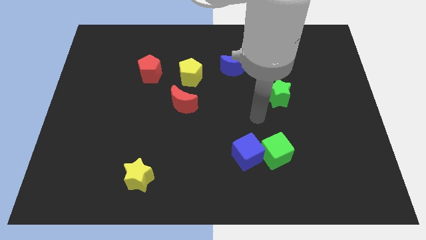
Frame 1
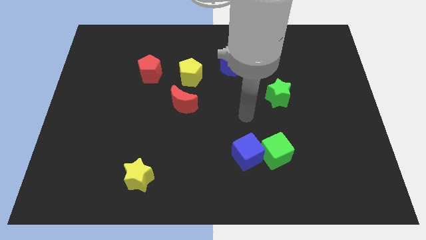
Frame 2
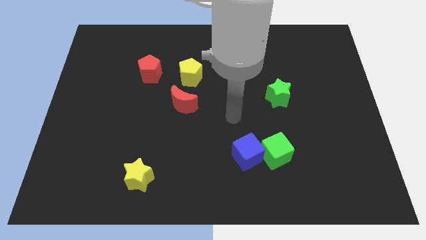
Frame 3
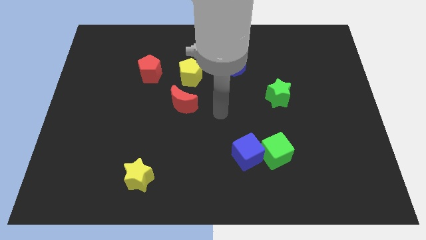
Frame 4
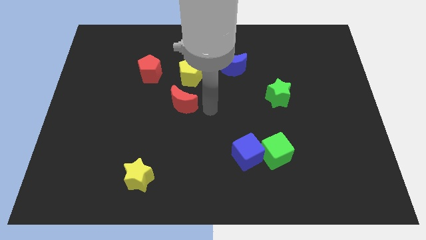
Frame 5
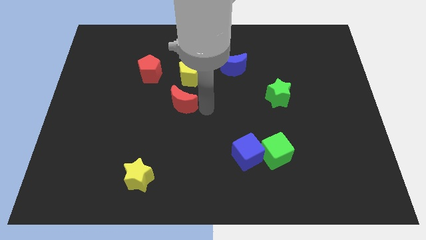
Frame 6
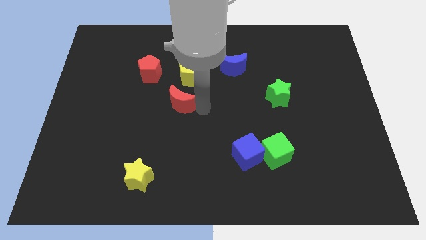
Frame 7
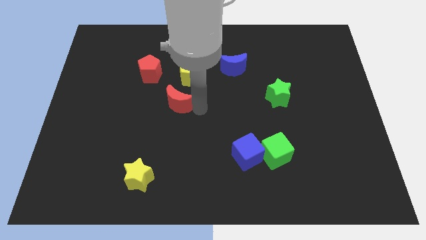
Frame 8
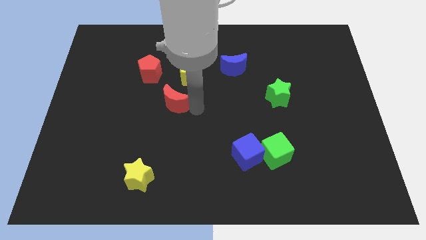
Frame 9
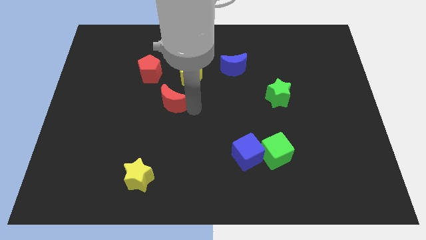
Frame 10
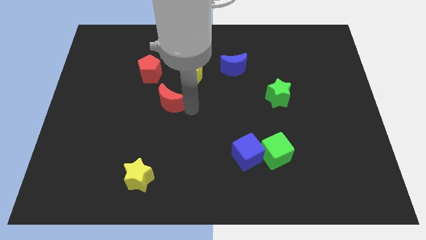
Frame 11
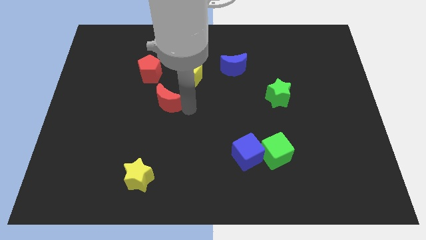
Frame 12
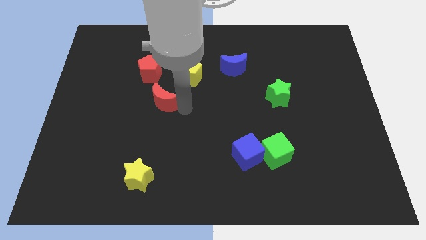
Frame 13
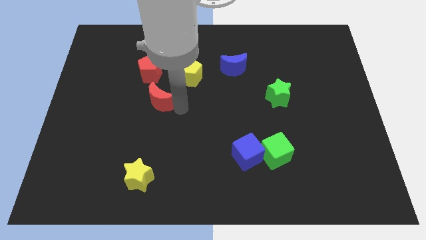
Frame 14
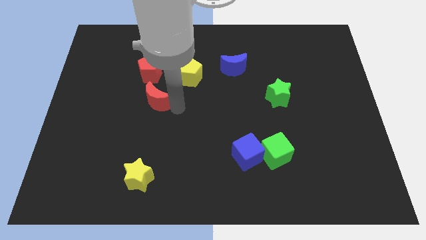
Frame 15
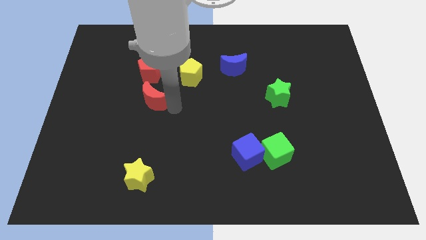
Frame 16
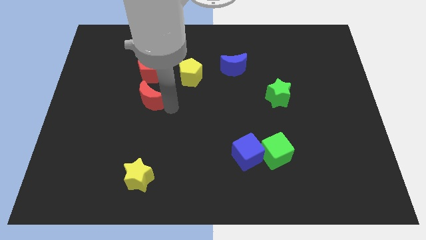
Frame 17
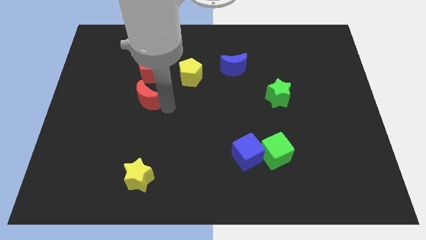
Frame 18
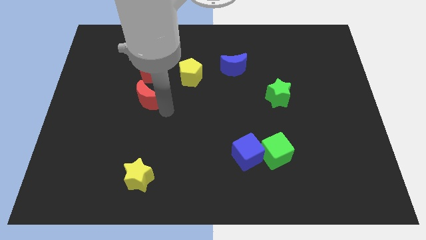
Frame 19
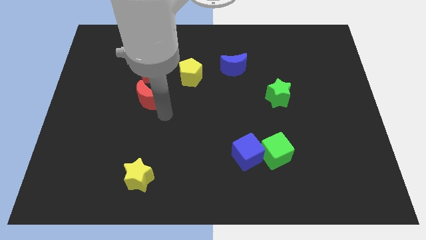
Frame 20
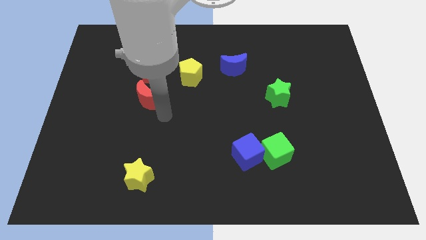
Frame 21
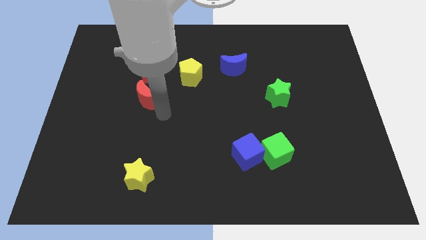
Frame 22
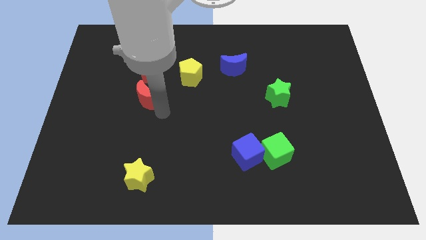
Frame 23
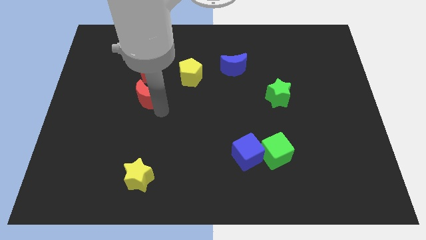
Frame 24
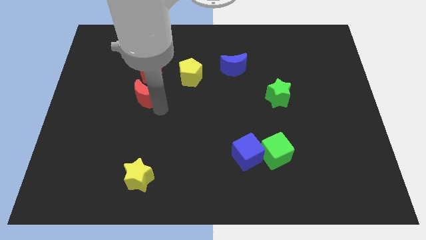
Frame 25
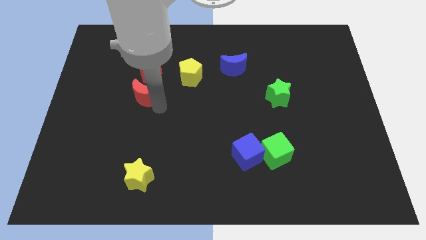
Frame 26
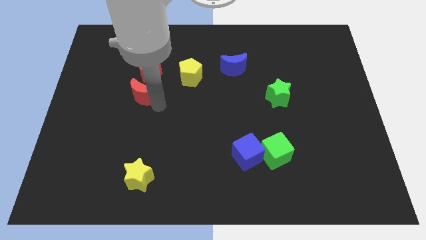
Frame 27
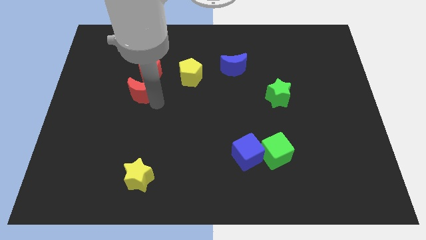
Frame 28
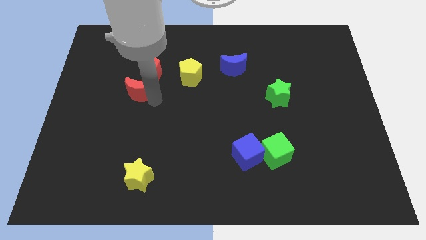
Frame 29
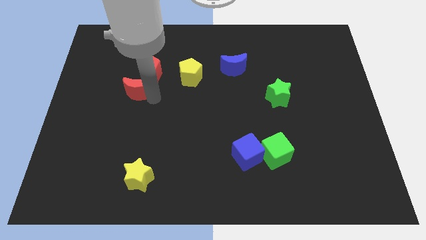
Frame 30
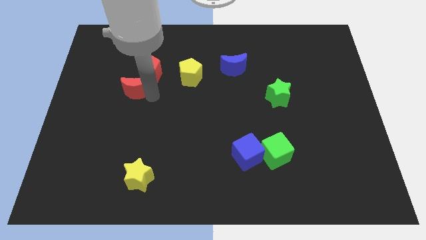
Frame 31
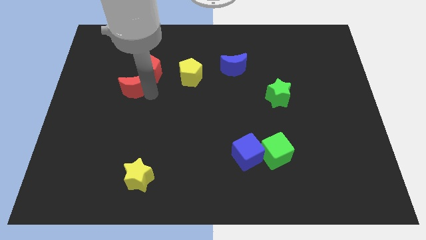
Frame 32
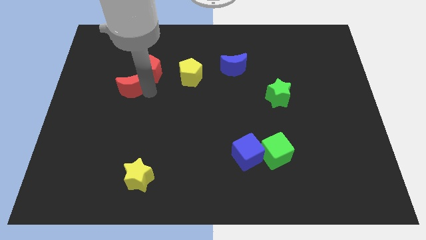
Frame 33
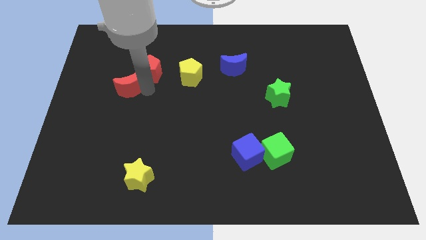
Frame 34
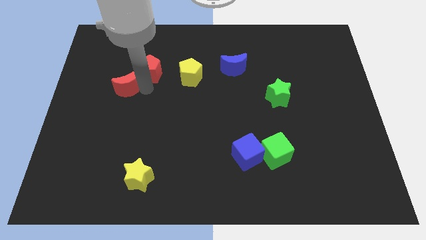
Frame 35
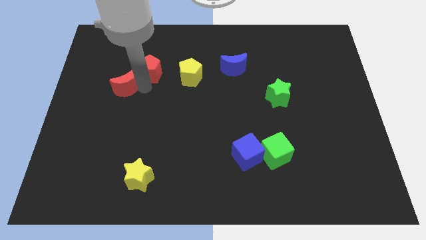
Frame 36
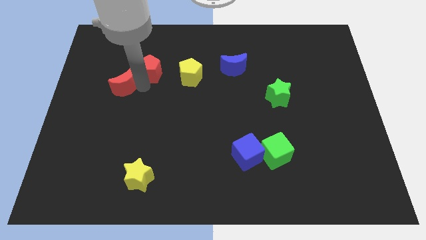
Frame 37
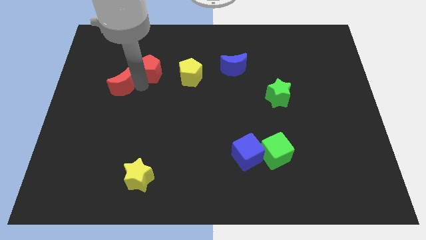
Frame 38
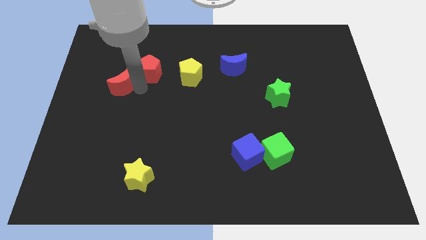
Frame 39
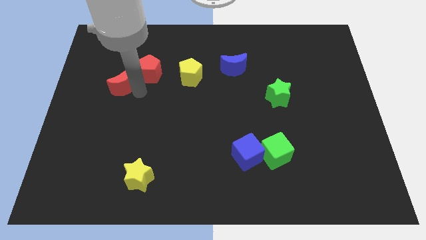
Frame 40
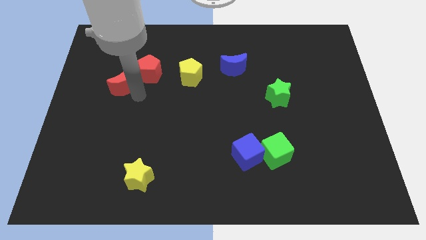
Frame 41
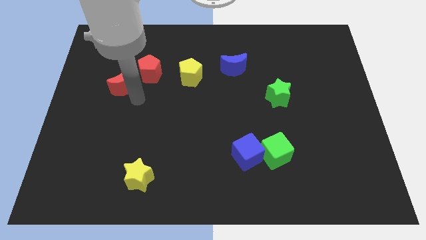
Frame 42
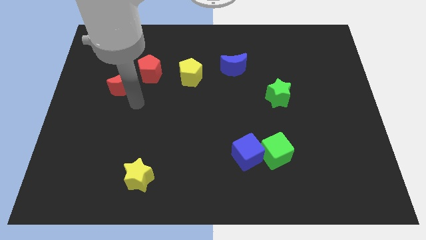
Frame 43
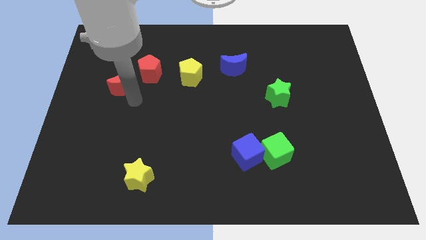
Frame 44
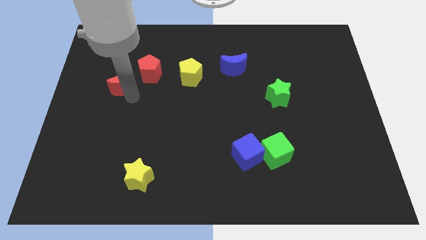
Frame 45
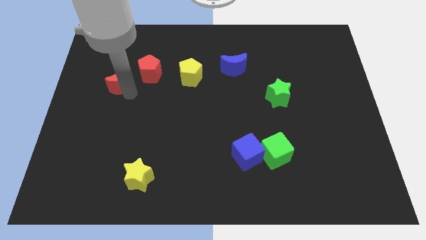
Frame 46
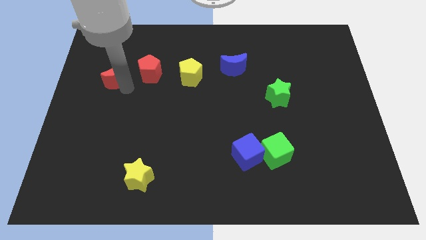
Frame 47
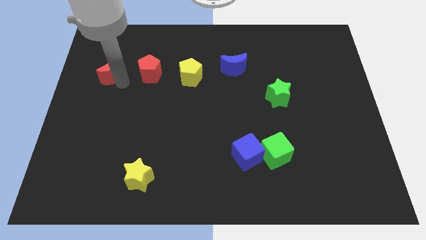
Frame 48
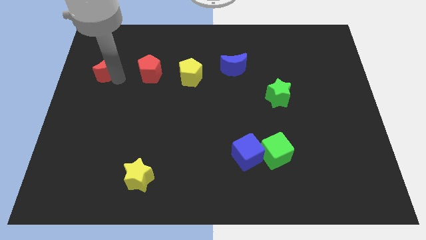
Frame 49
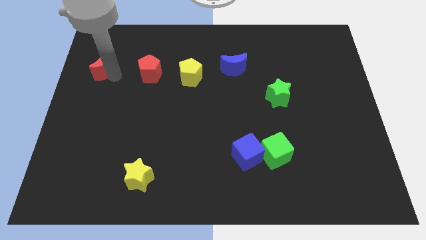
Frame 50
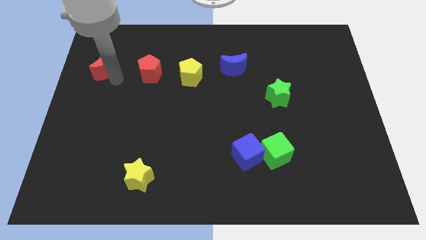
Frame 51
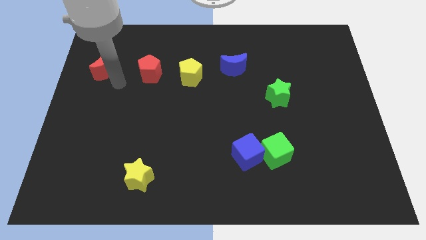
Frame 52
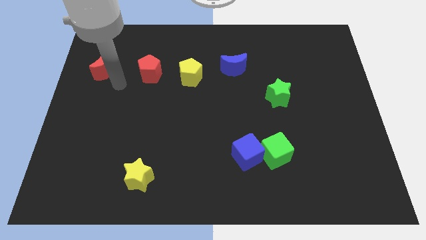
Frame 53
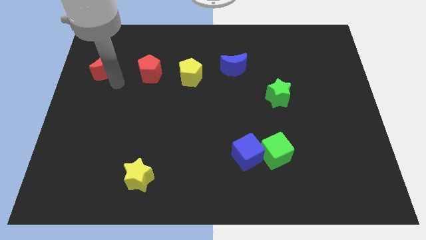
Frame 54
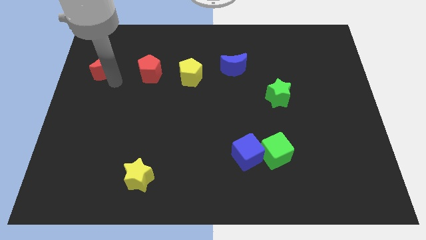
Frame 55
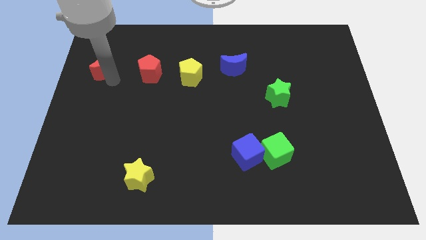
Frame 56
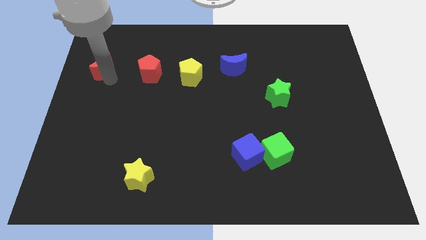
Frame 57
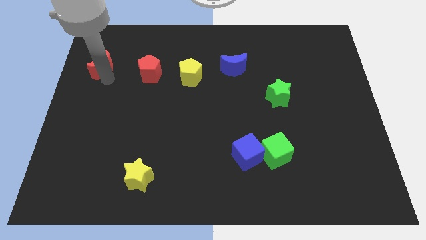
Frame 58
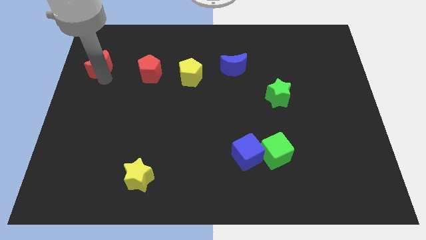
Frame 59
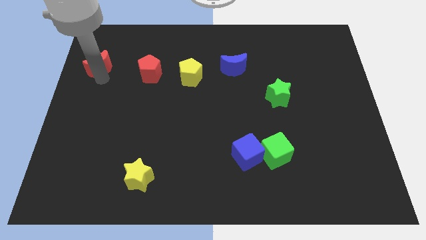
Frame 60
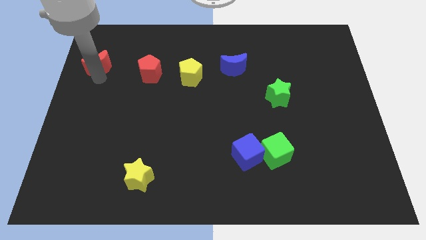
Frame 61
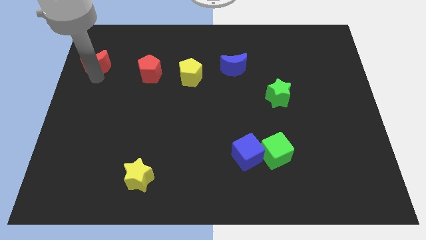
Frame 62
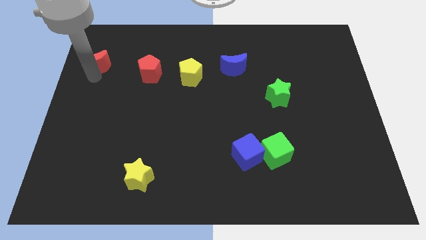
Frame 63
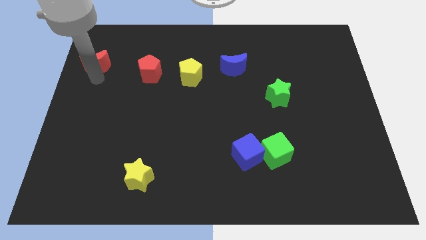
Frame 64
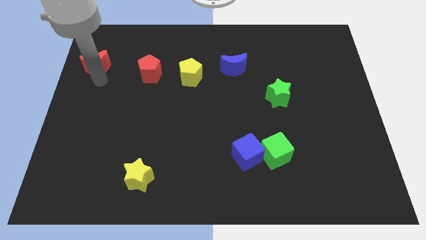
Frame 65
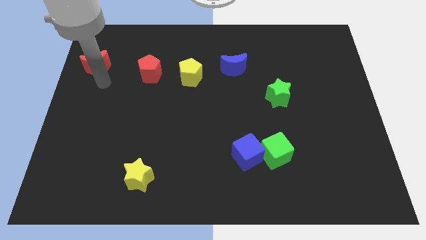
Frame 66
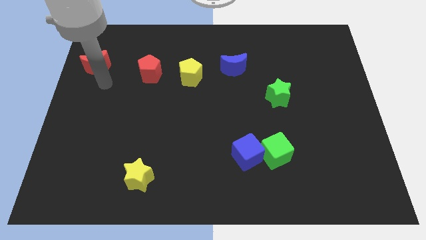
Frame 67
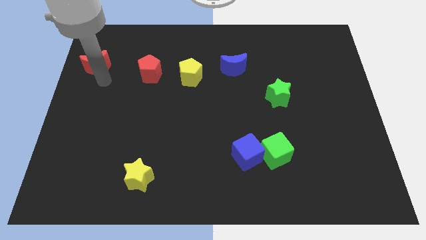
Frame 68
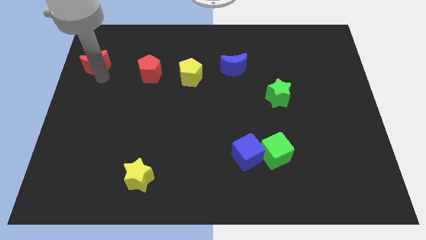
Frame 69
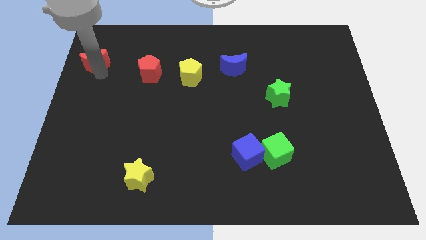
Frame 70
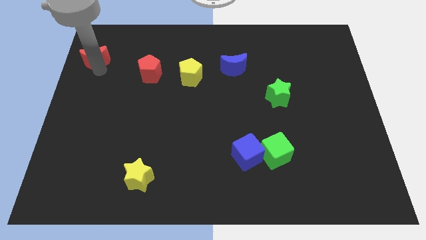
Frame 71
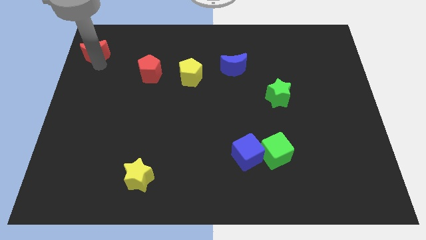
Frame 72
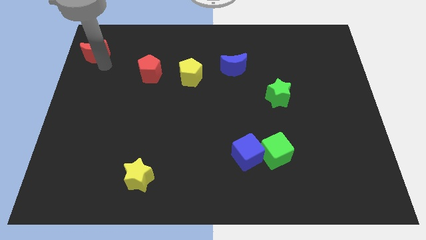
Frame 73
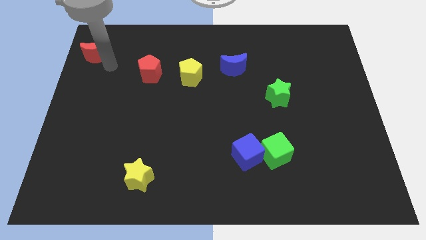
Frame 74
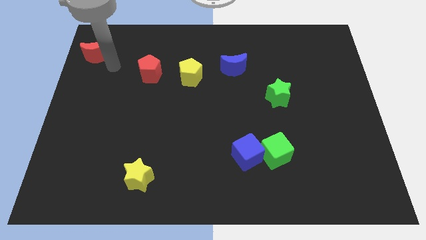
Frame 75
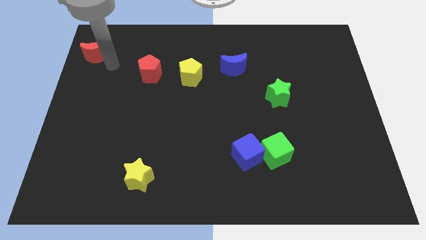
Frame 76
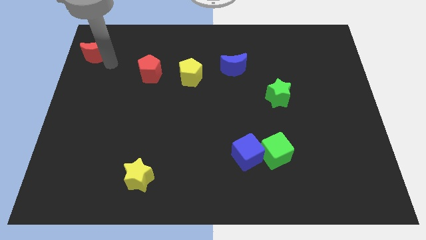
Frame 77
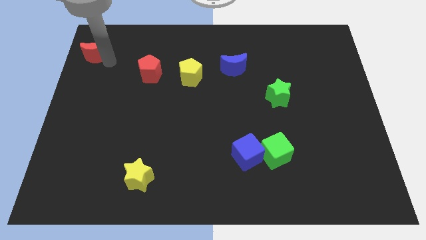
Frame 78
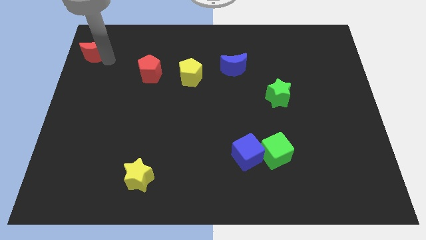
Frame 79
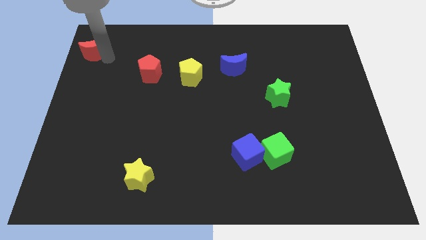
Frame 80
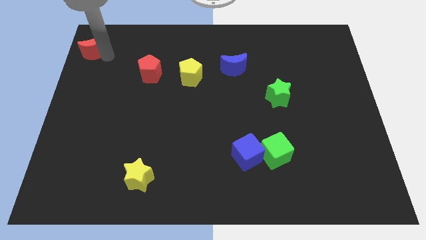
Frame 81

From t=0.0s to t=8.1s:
put the red moon to the upper left corner
